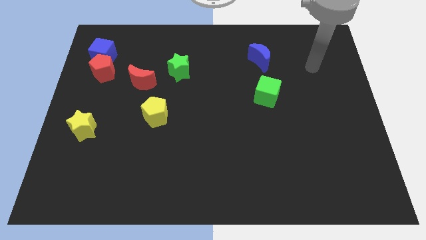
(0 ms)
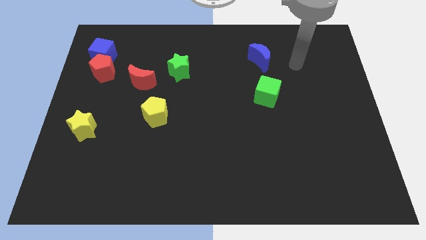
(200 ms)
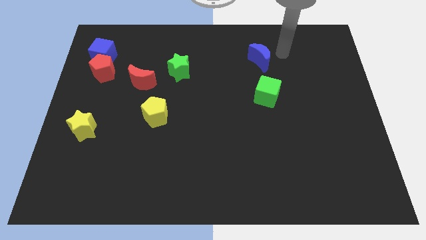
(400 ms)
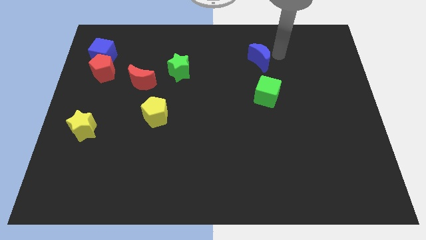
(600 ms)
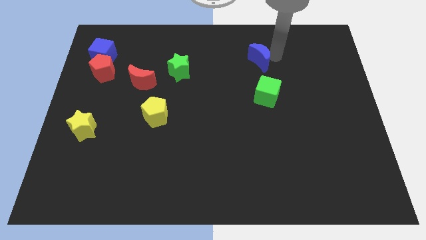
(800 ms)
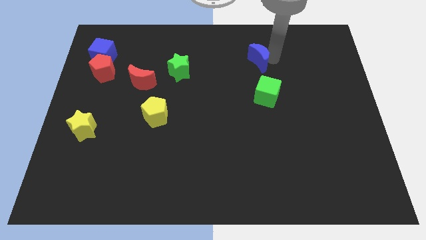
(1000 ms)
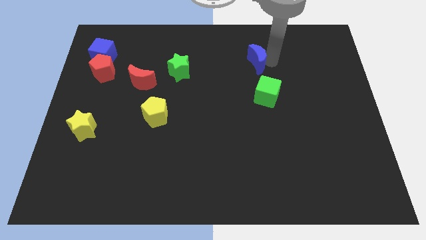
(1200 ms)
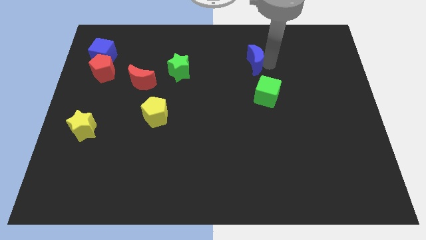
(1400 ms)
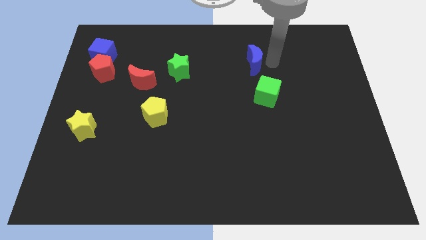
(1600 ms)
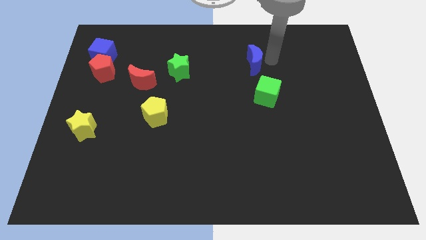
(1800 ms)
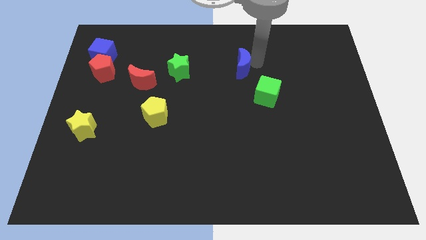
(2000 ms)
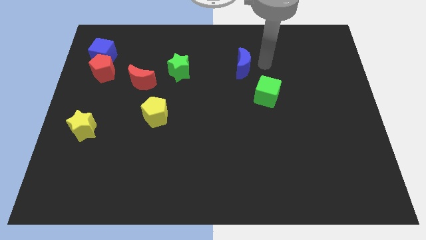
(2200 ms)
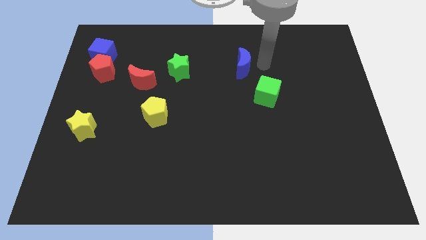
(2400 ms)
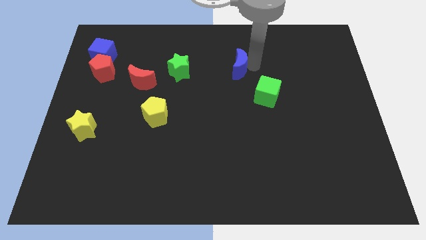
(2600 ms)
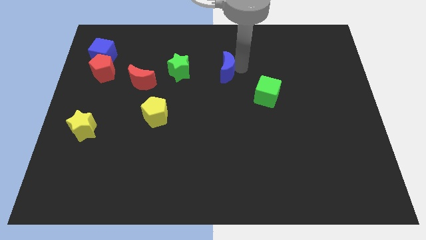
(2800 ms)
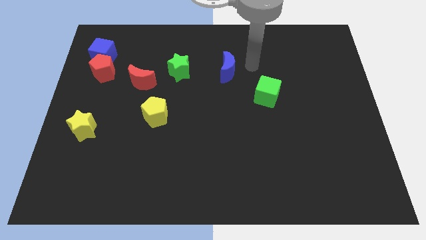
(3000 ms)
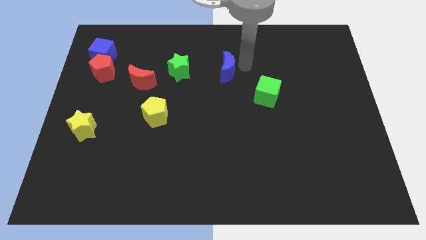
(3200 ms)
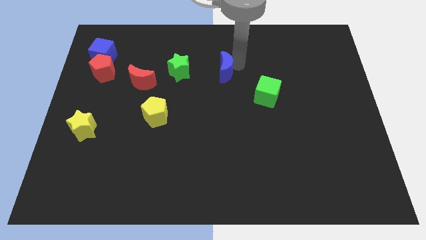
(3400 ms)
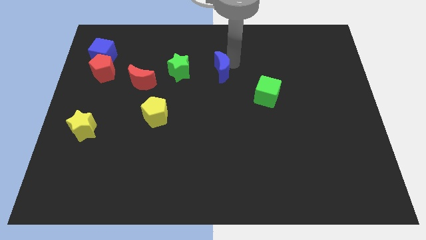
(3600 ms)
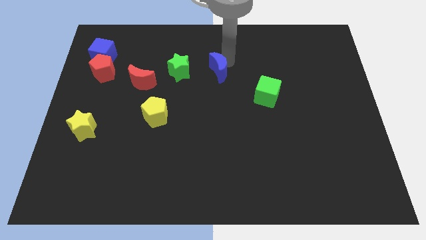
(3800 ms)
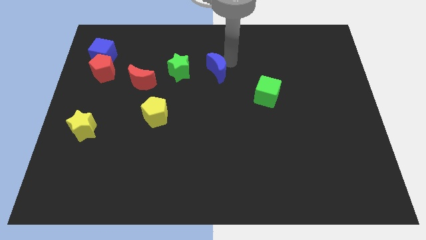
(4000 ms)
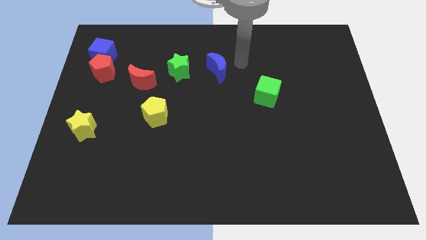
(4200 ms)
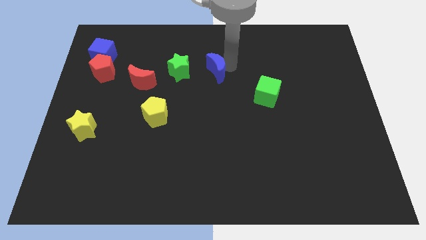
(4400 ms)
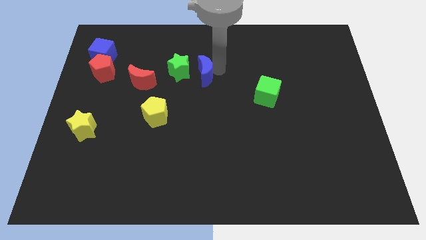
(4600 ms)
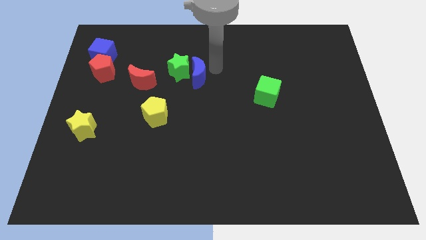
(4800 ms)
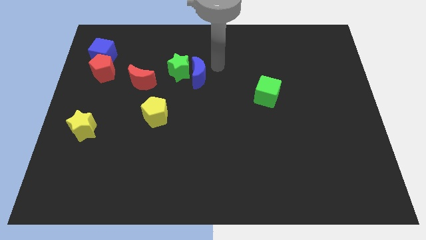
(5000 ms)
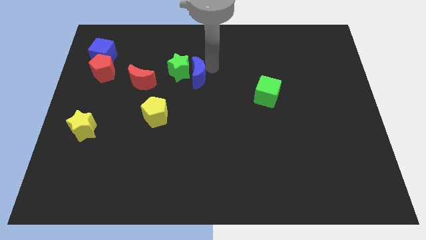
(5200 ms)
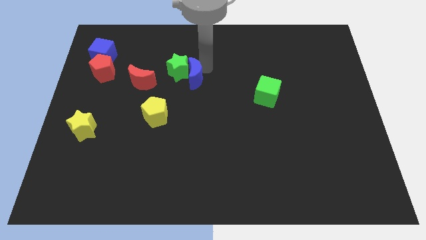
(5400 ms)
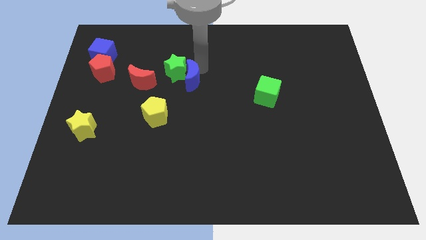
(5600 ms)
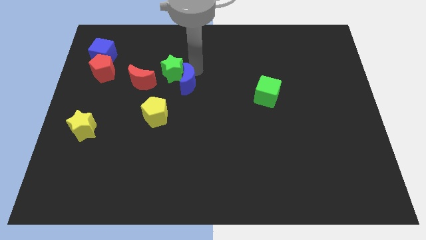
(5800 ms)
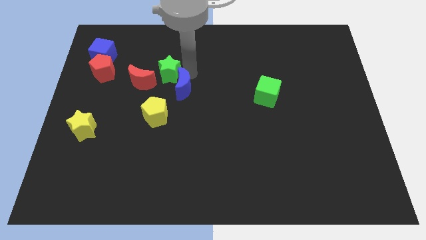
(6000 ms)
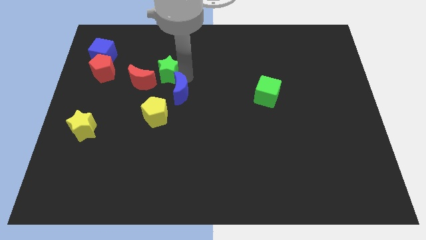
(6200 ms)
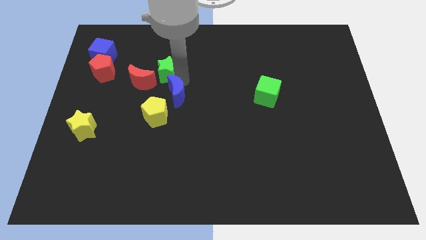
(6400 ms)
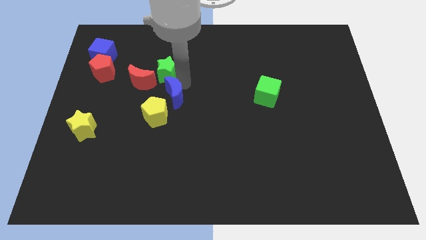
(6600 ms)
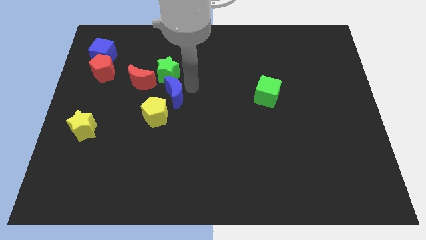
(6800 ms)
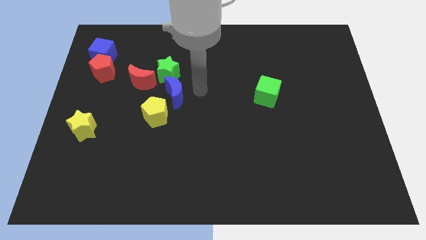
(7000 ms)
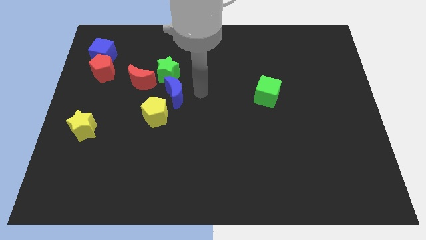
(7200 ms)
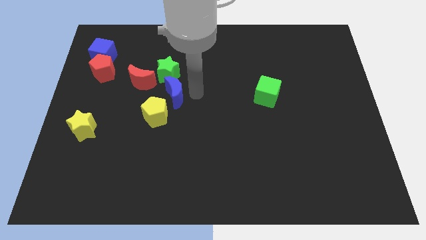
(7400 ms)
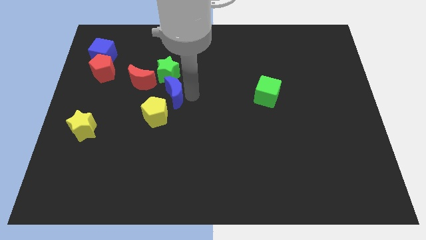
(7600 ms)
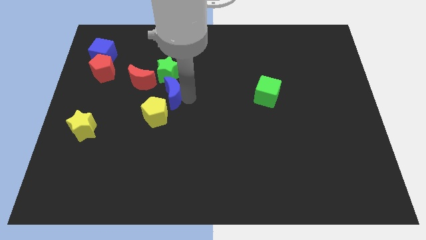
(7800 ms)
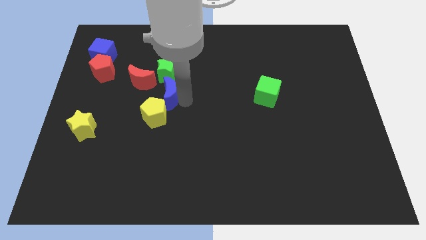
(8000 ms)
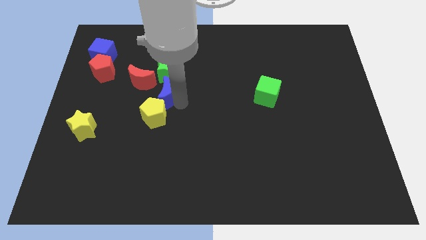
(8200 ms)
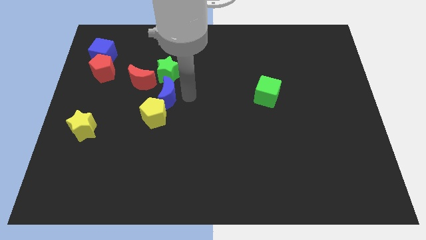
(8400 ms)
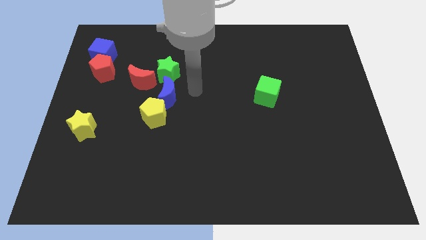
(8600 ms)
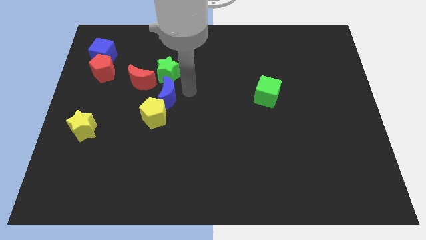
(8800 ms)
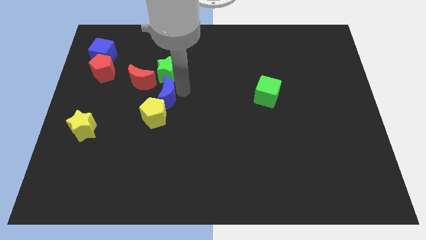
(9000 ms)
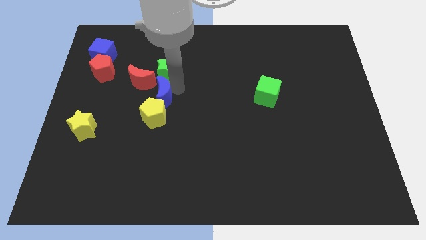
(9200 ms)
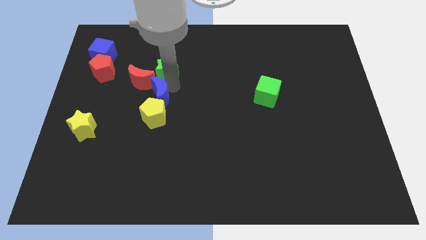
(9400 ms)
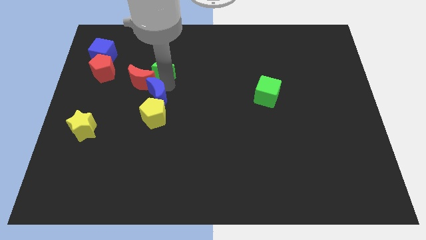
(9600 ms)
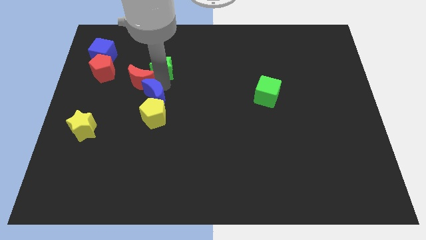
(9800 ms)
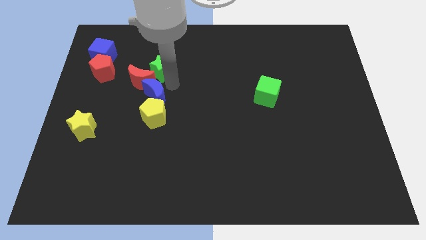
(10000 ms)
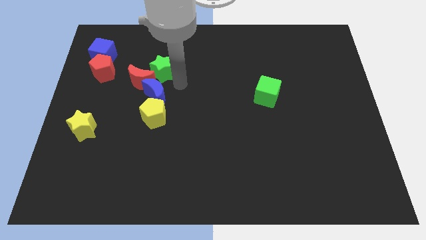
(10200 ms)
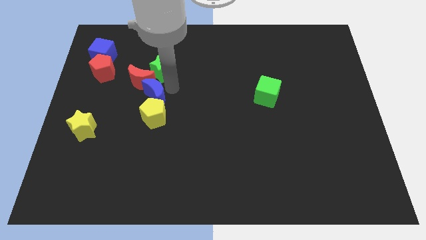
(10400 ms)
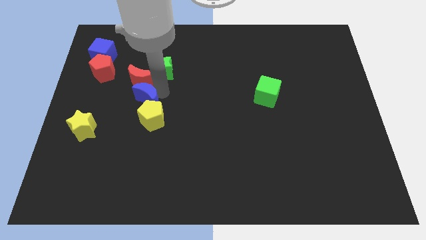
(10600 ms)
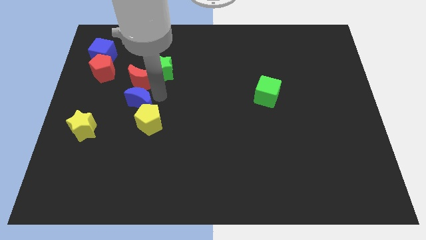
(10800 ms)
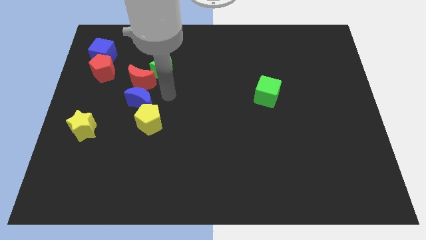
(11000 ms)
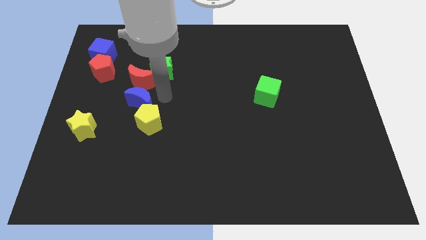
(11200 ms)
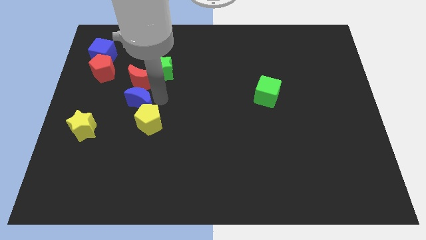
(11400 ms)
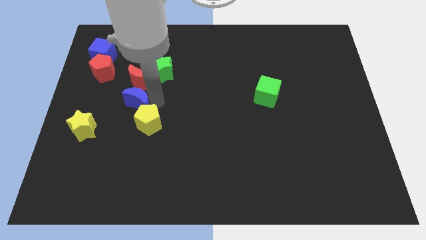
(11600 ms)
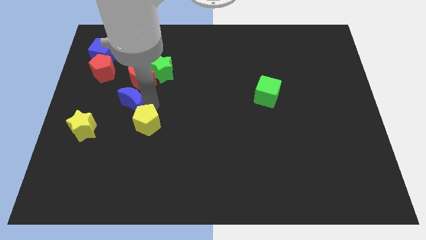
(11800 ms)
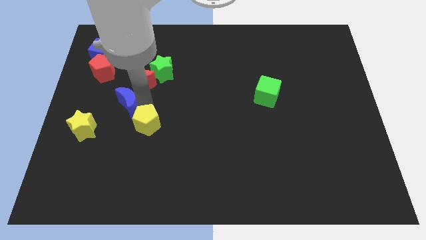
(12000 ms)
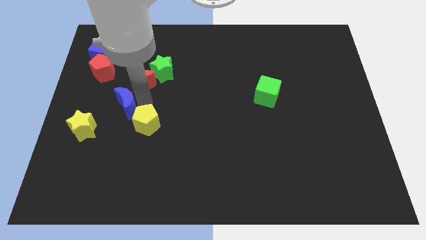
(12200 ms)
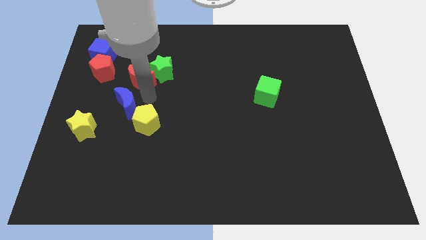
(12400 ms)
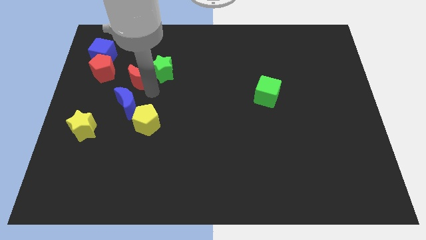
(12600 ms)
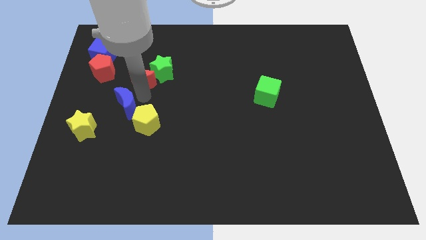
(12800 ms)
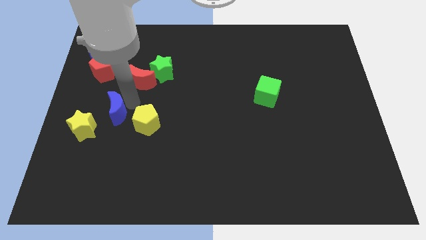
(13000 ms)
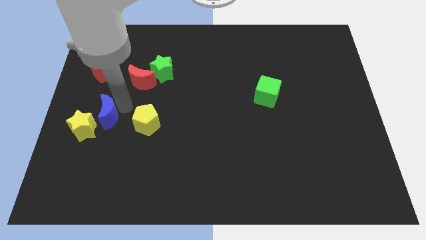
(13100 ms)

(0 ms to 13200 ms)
move the blue moon to the yellow star

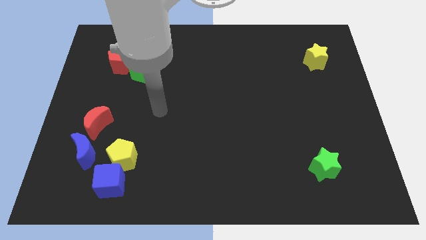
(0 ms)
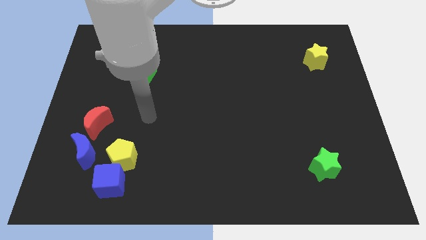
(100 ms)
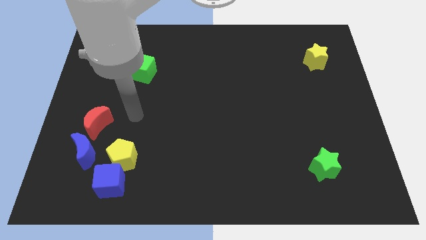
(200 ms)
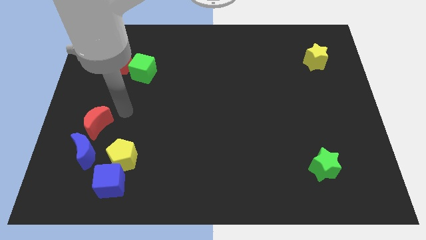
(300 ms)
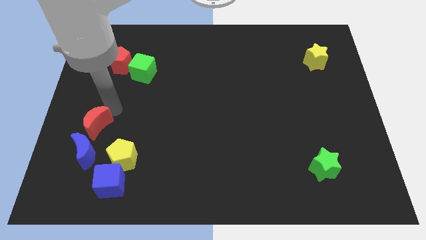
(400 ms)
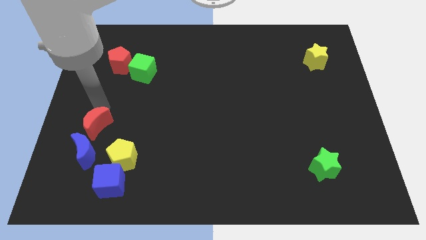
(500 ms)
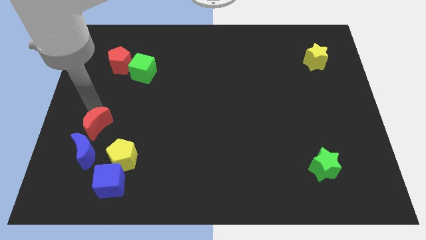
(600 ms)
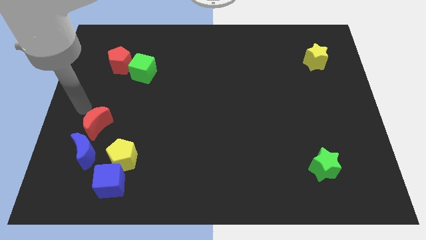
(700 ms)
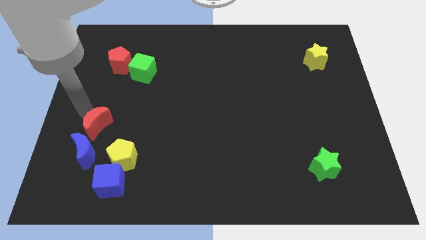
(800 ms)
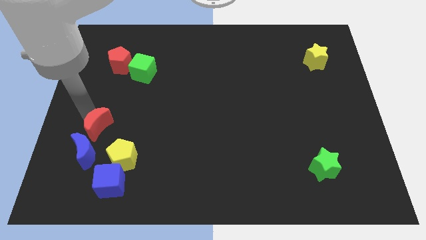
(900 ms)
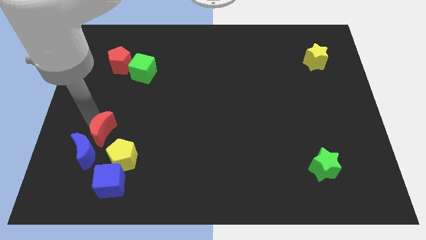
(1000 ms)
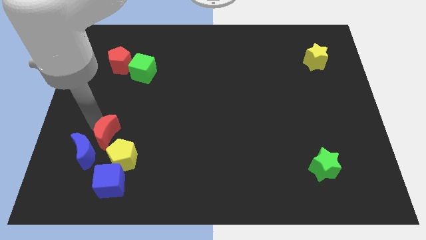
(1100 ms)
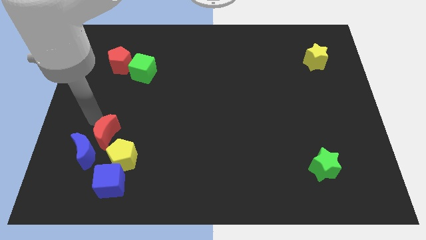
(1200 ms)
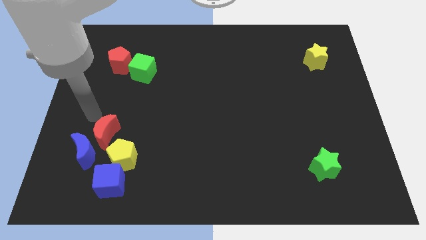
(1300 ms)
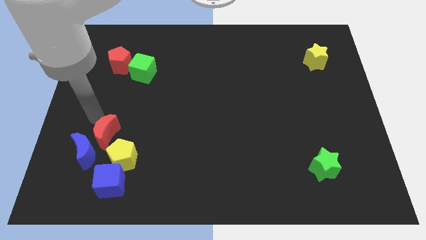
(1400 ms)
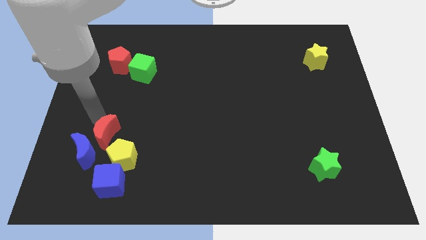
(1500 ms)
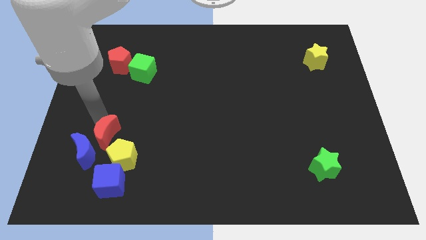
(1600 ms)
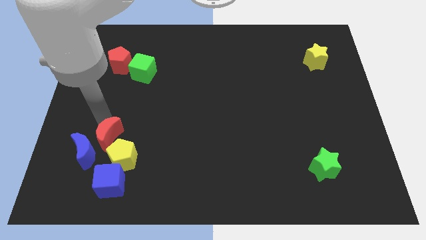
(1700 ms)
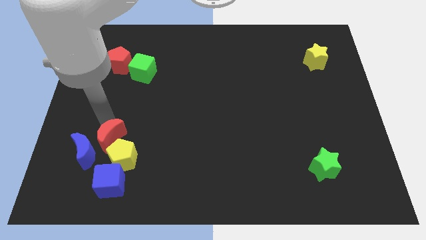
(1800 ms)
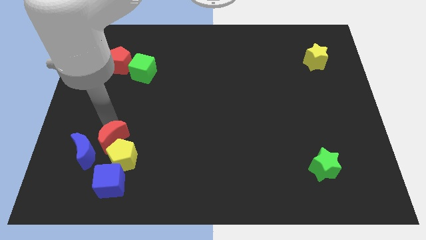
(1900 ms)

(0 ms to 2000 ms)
push the red moon towards the yellow pentagon
